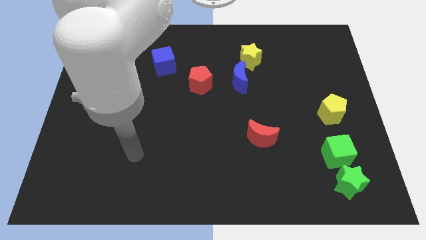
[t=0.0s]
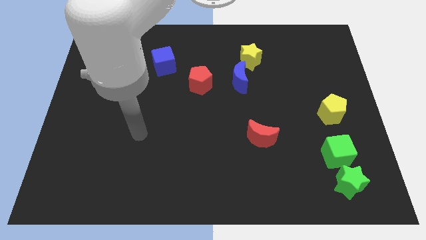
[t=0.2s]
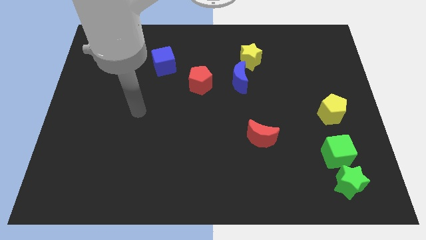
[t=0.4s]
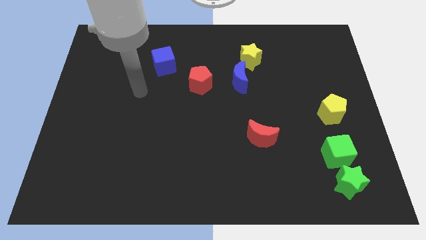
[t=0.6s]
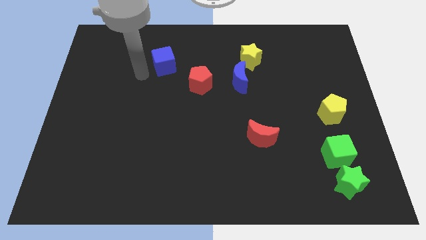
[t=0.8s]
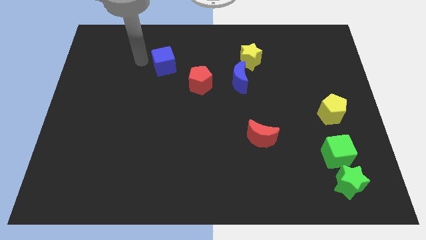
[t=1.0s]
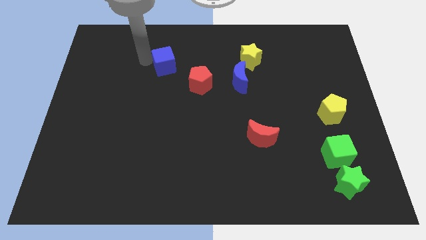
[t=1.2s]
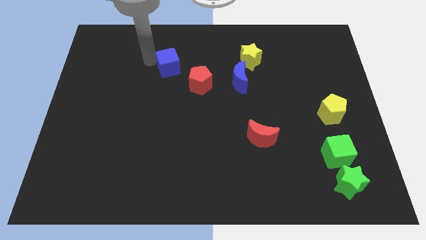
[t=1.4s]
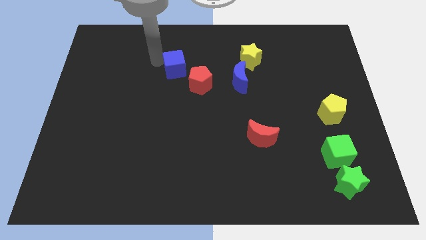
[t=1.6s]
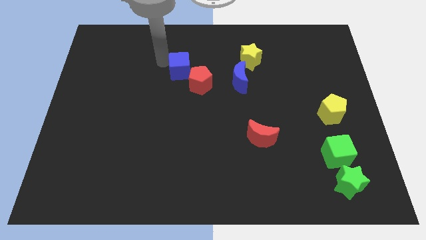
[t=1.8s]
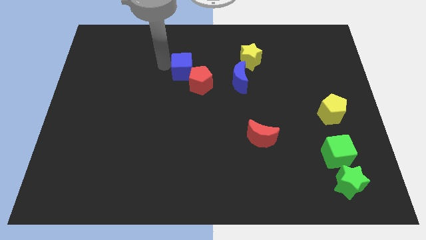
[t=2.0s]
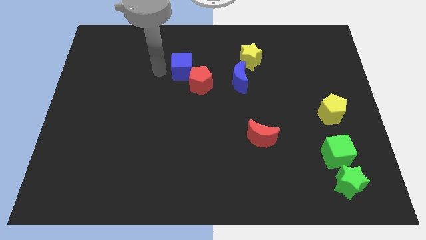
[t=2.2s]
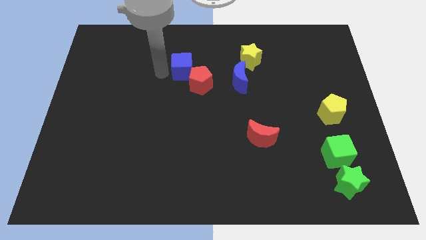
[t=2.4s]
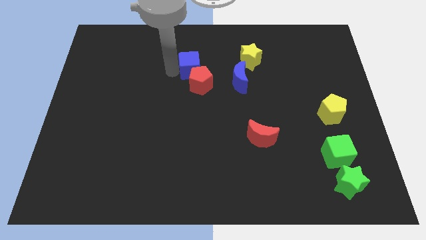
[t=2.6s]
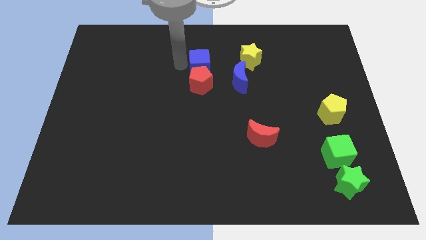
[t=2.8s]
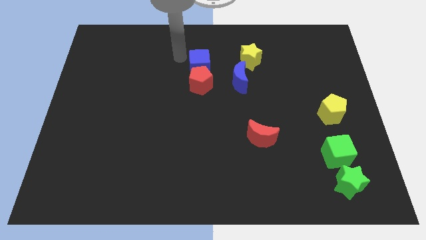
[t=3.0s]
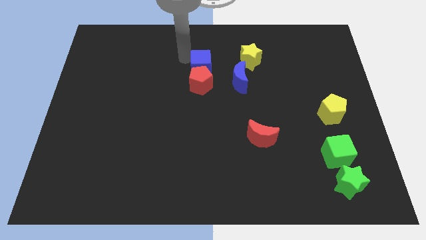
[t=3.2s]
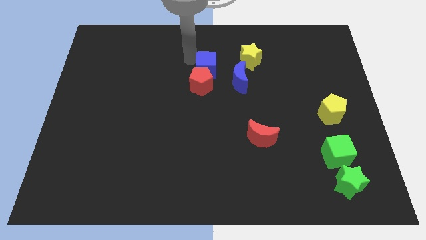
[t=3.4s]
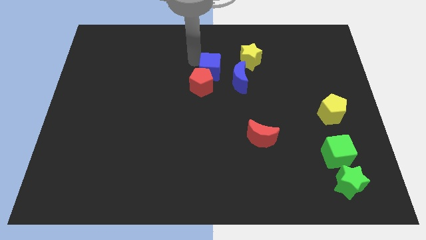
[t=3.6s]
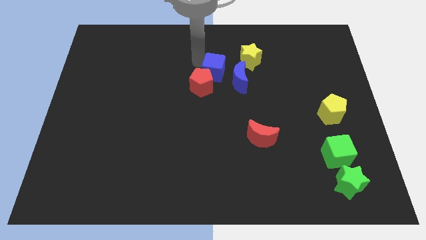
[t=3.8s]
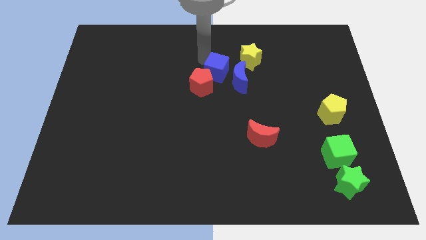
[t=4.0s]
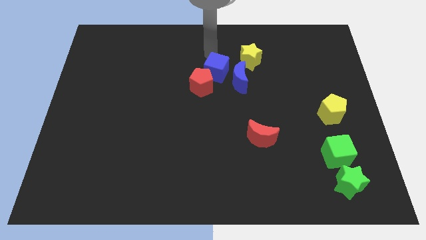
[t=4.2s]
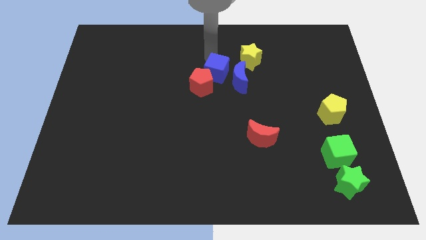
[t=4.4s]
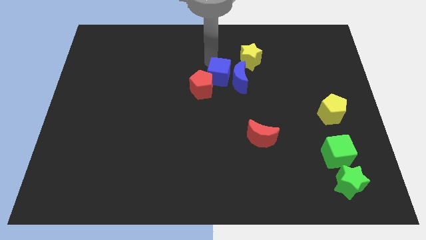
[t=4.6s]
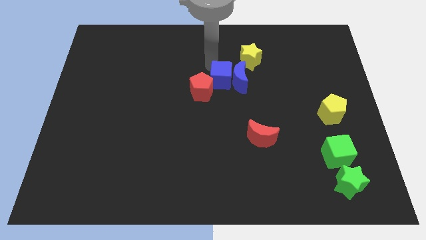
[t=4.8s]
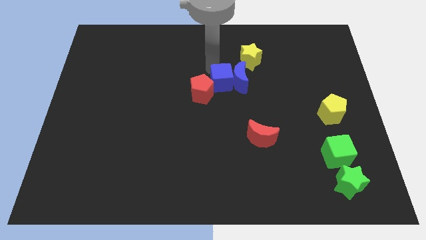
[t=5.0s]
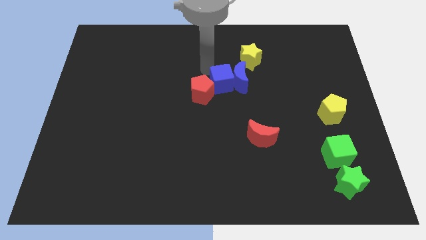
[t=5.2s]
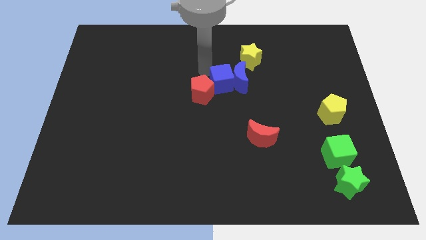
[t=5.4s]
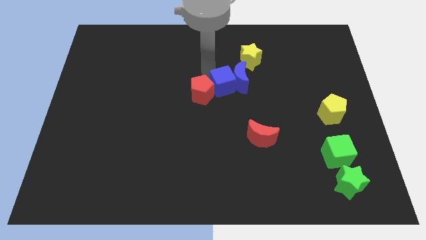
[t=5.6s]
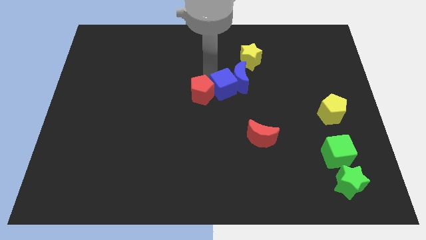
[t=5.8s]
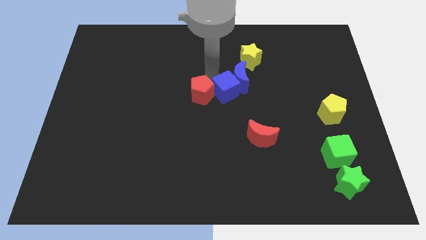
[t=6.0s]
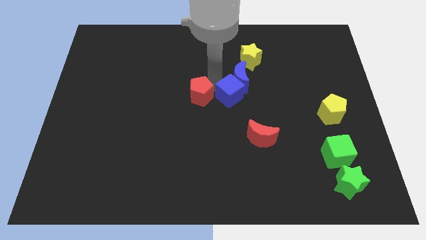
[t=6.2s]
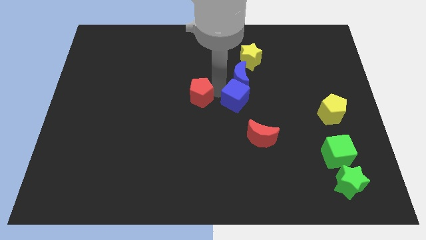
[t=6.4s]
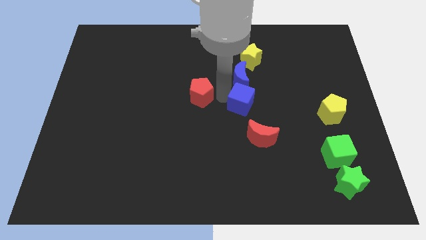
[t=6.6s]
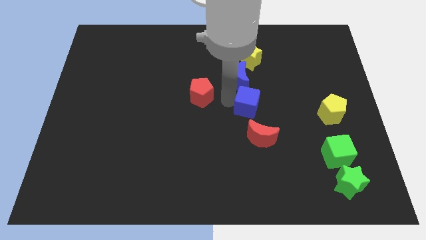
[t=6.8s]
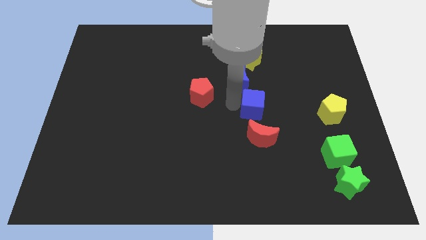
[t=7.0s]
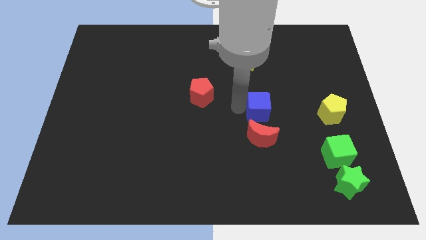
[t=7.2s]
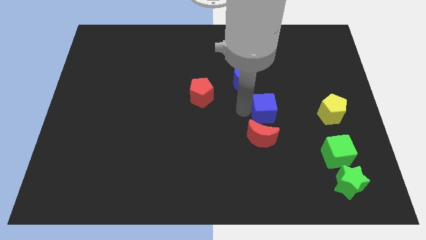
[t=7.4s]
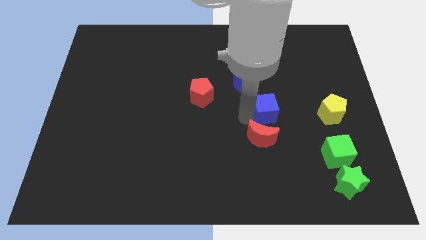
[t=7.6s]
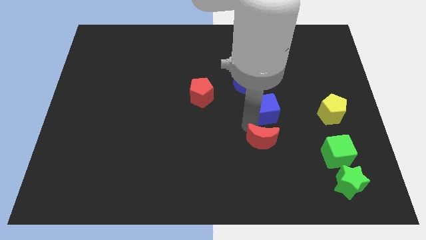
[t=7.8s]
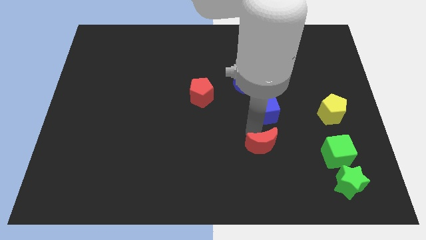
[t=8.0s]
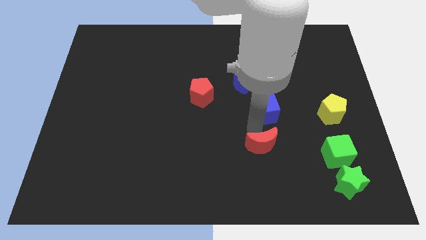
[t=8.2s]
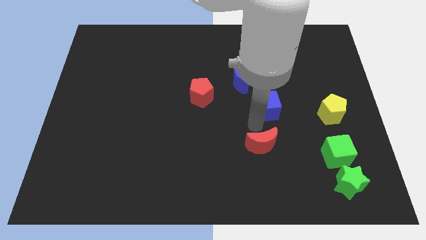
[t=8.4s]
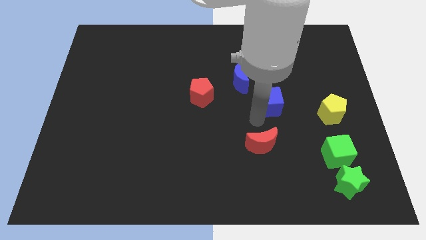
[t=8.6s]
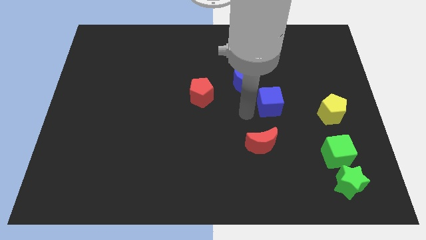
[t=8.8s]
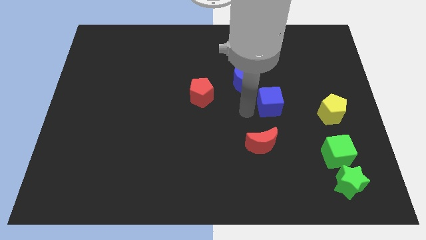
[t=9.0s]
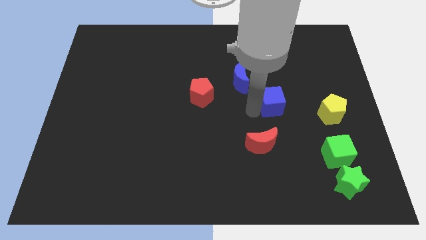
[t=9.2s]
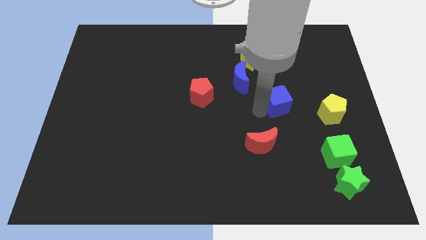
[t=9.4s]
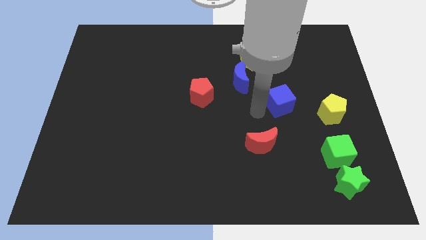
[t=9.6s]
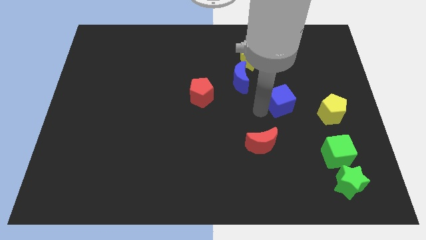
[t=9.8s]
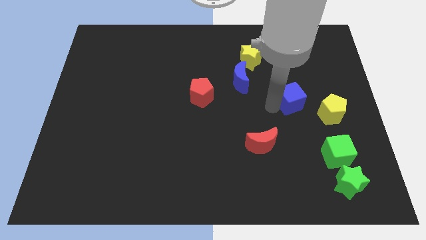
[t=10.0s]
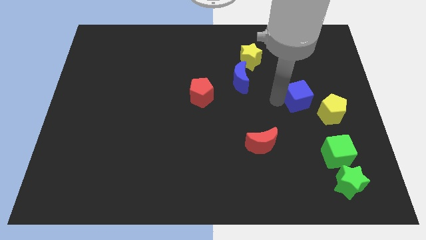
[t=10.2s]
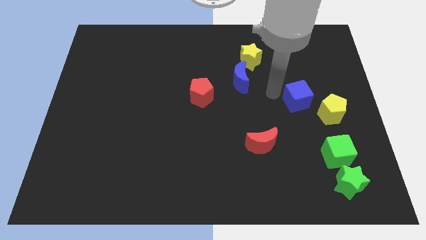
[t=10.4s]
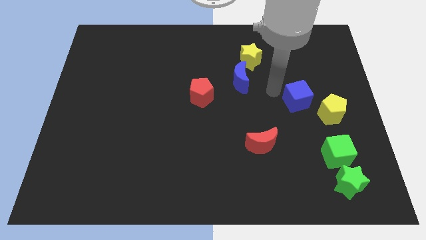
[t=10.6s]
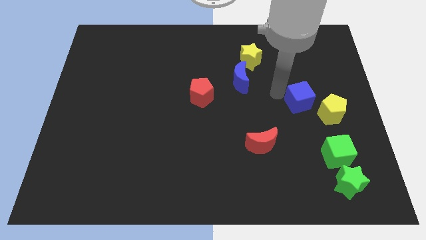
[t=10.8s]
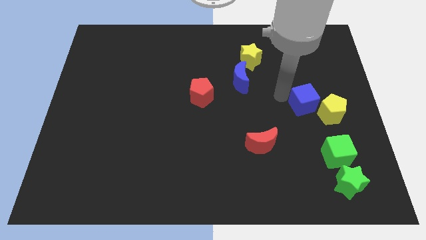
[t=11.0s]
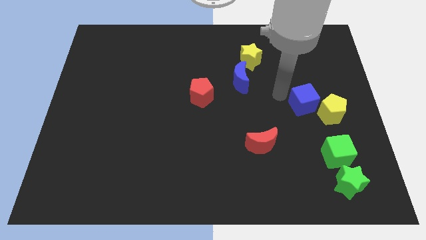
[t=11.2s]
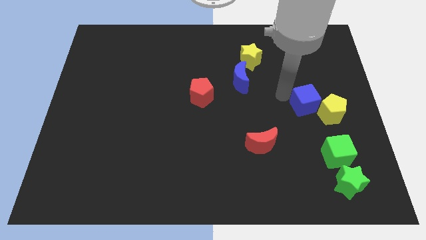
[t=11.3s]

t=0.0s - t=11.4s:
put the blue cube close to the yellow pentagon

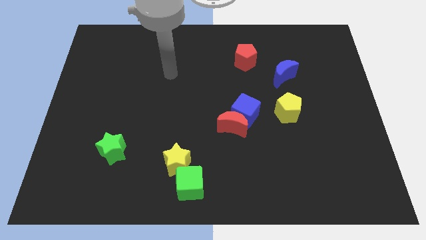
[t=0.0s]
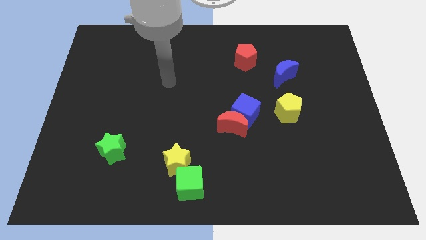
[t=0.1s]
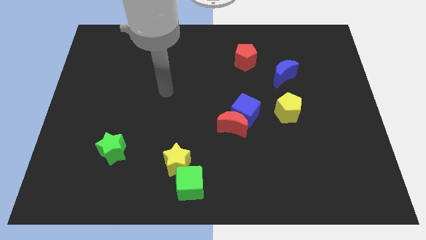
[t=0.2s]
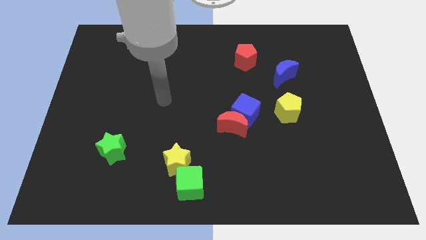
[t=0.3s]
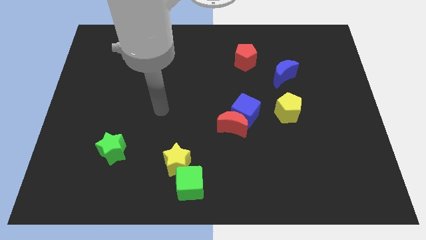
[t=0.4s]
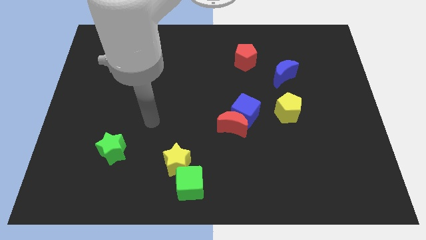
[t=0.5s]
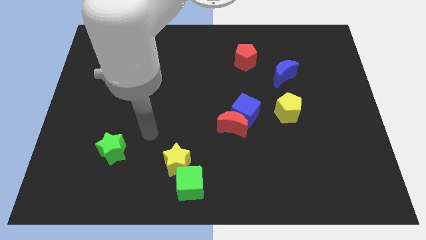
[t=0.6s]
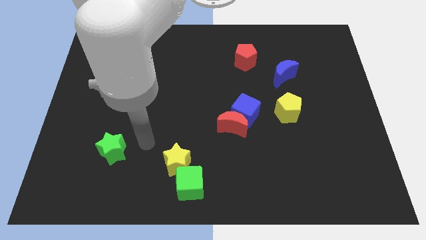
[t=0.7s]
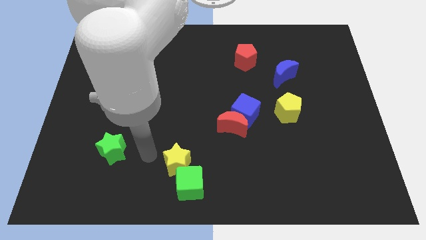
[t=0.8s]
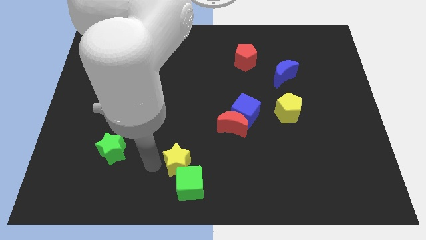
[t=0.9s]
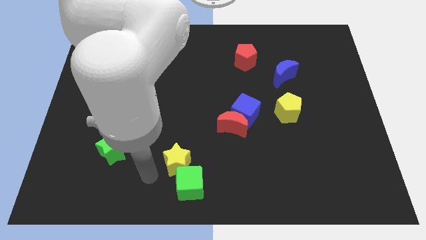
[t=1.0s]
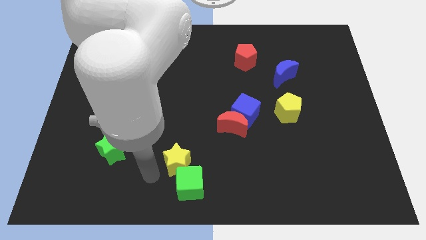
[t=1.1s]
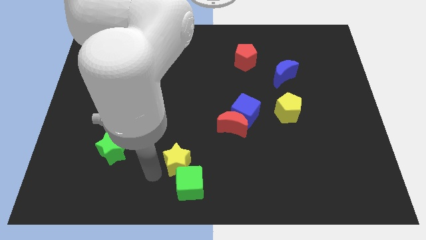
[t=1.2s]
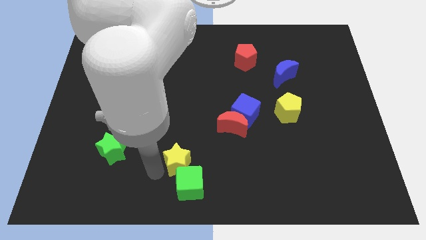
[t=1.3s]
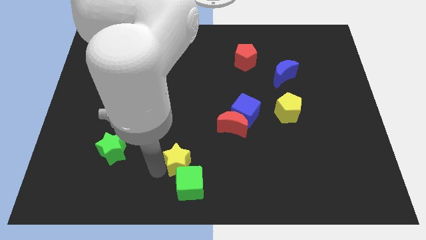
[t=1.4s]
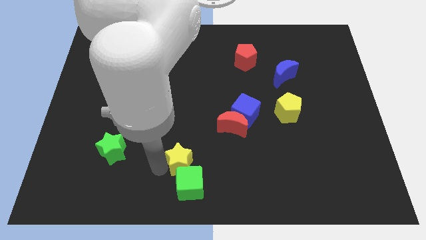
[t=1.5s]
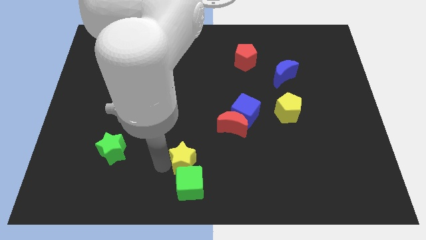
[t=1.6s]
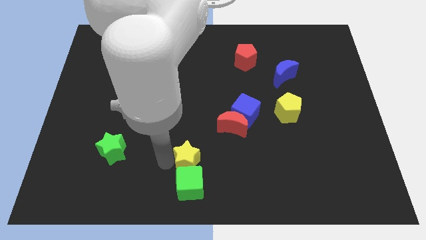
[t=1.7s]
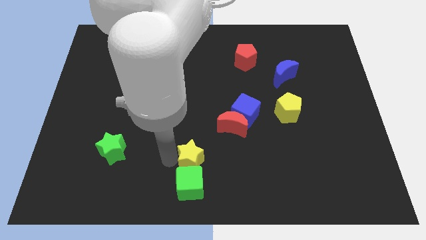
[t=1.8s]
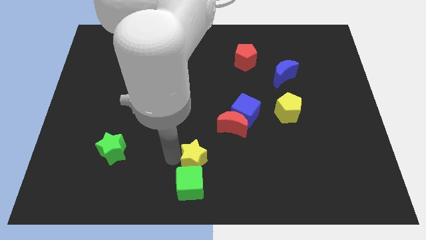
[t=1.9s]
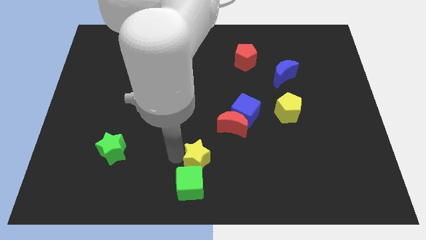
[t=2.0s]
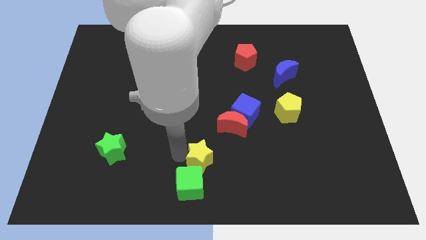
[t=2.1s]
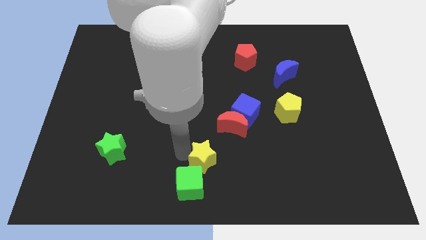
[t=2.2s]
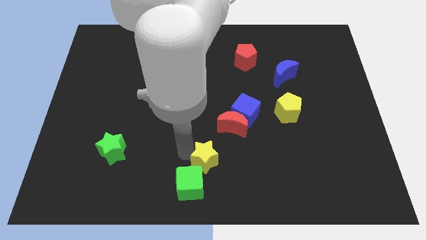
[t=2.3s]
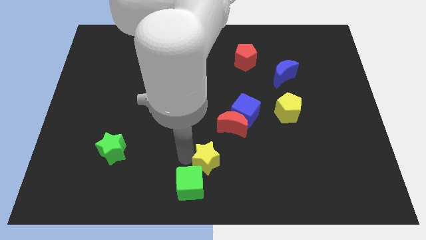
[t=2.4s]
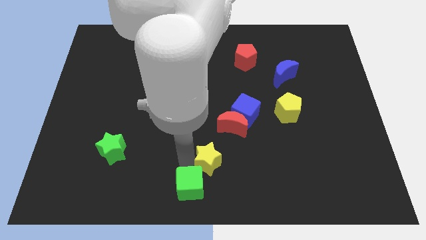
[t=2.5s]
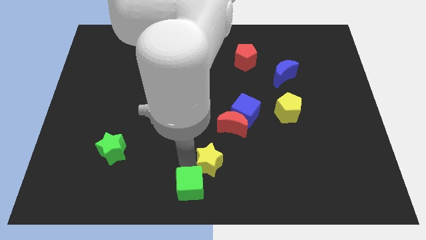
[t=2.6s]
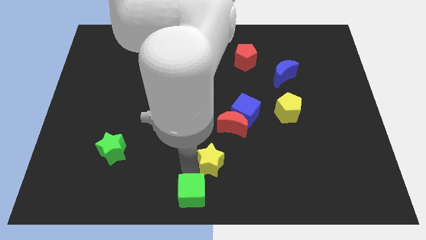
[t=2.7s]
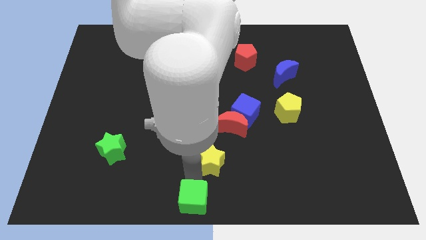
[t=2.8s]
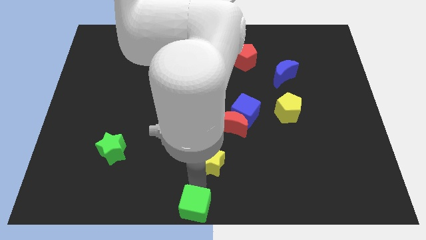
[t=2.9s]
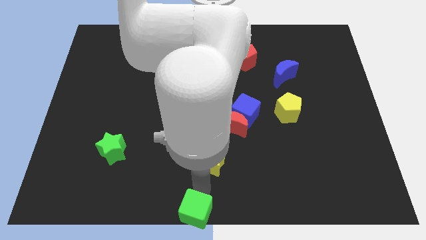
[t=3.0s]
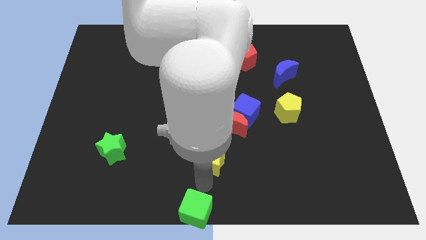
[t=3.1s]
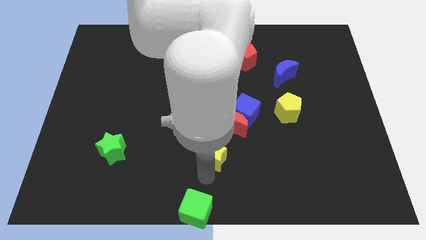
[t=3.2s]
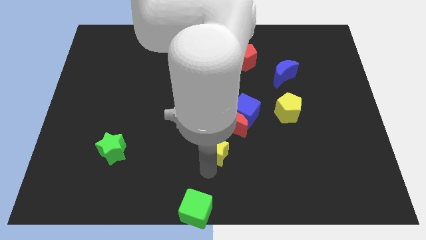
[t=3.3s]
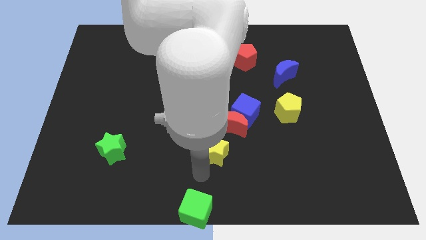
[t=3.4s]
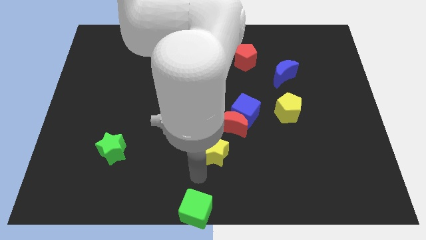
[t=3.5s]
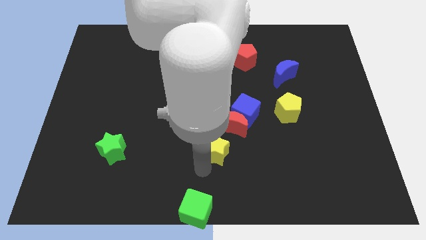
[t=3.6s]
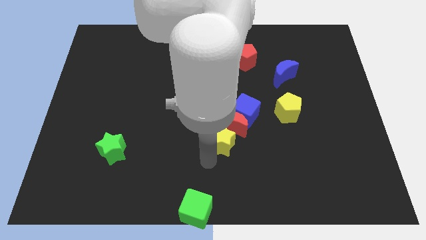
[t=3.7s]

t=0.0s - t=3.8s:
push the yellow star towards the red moon
